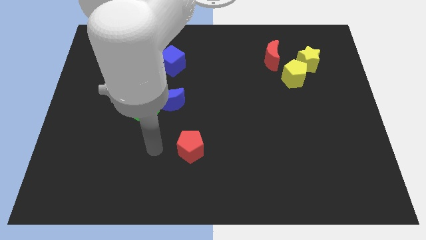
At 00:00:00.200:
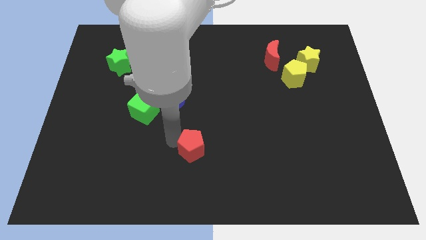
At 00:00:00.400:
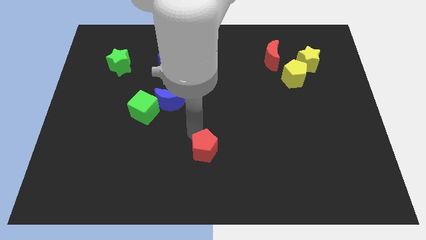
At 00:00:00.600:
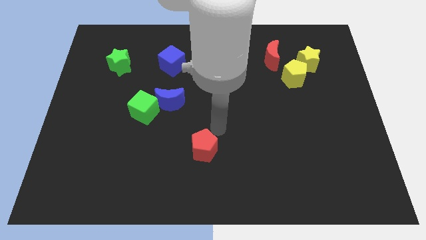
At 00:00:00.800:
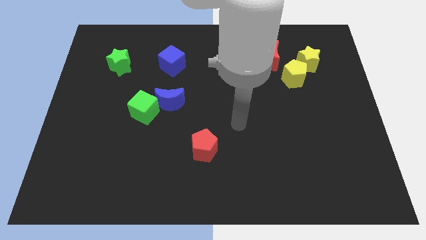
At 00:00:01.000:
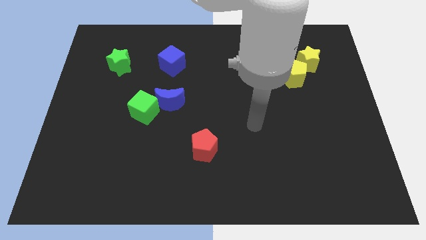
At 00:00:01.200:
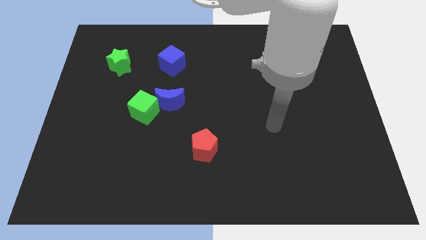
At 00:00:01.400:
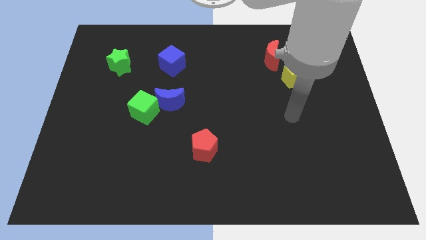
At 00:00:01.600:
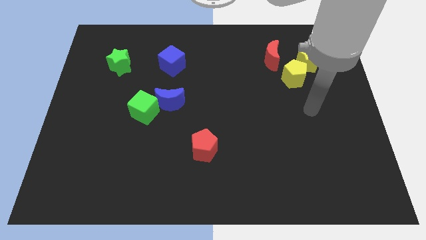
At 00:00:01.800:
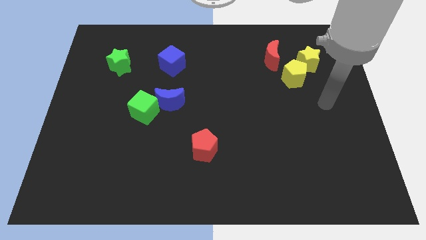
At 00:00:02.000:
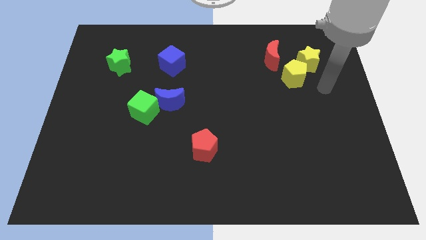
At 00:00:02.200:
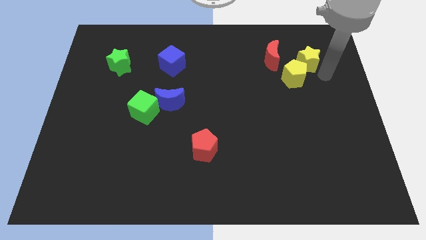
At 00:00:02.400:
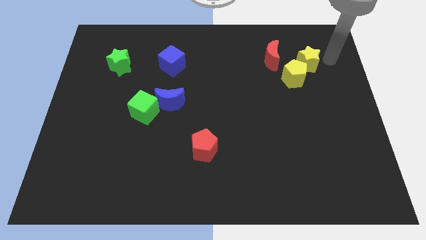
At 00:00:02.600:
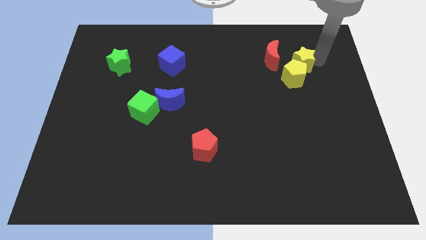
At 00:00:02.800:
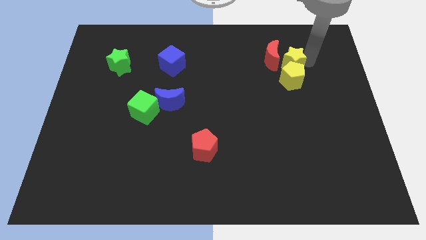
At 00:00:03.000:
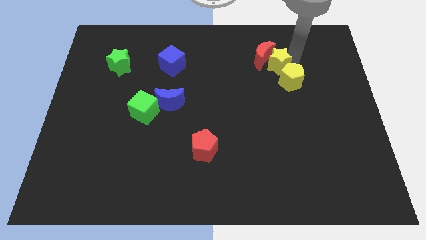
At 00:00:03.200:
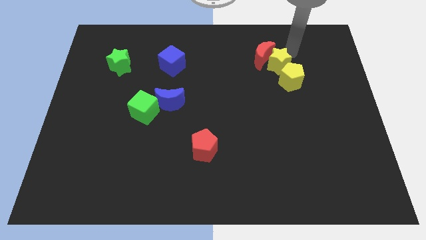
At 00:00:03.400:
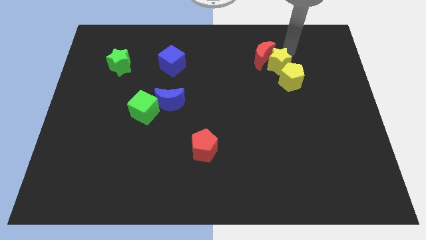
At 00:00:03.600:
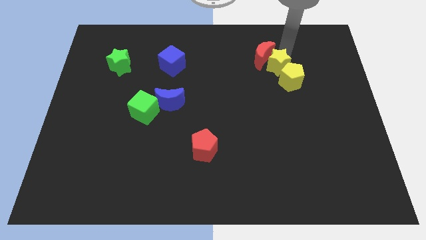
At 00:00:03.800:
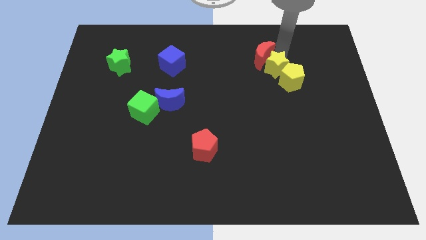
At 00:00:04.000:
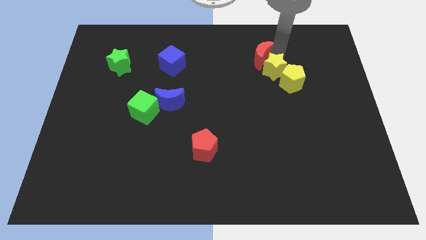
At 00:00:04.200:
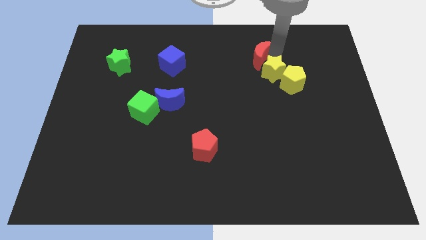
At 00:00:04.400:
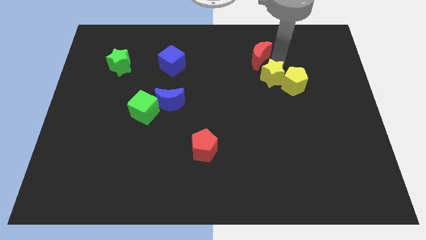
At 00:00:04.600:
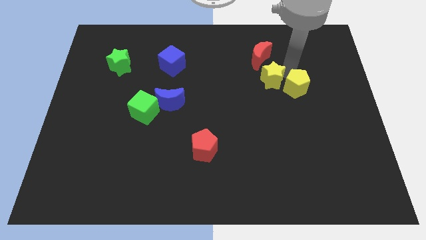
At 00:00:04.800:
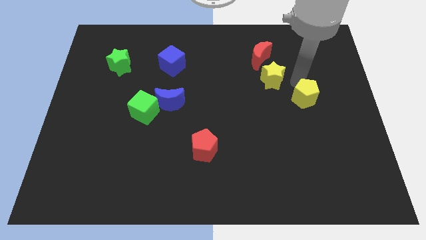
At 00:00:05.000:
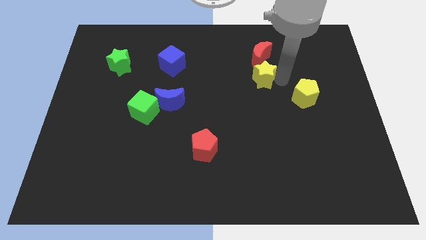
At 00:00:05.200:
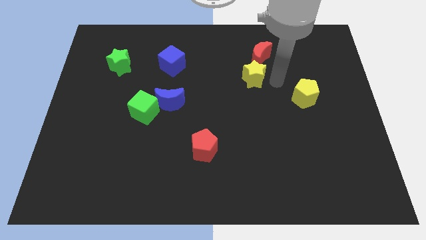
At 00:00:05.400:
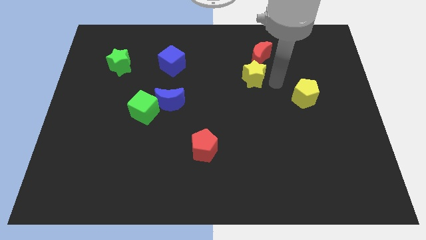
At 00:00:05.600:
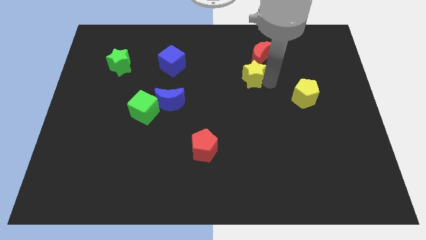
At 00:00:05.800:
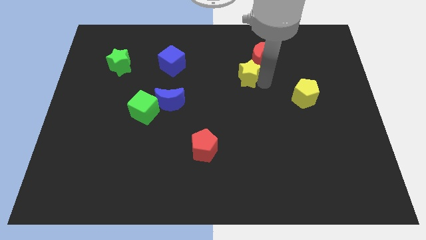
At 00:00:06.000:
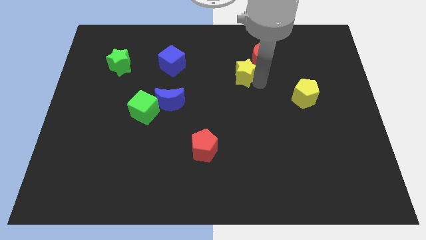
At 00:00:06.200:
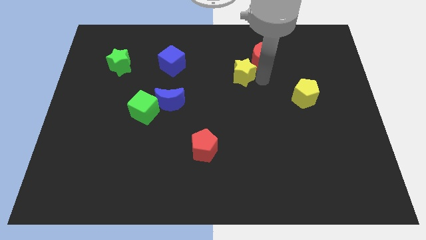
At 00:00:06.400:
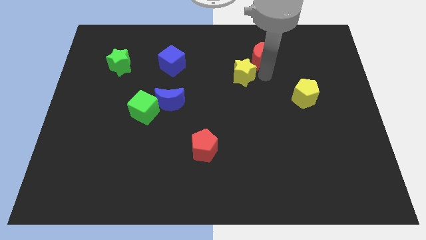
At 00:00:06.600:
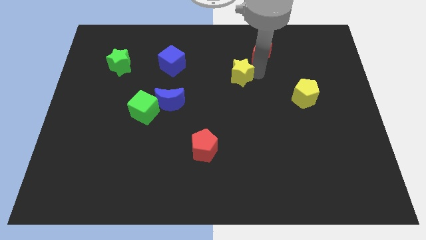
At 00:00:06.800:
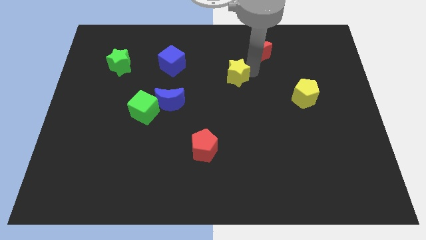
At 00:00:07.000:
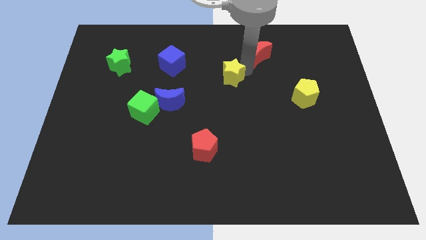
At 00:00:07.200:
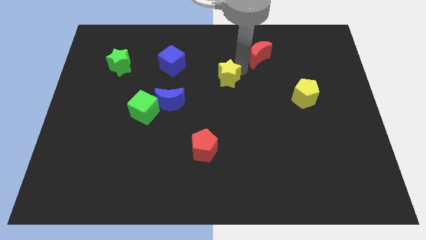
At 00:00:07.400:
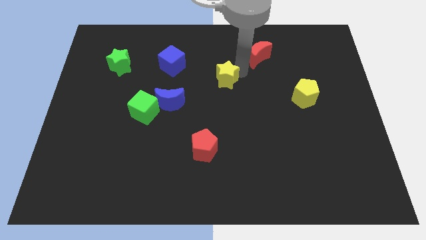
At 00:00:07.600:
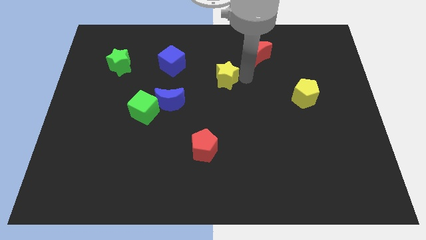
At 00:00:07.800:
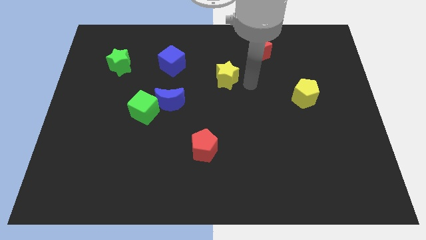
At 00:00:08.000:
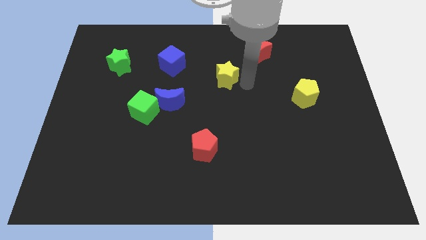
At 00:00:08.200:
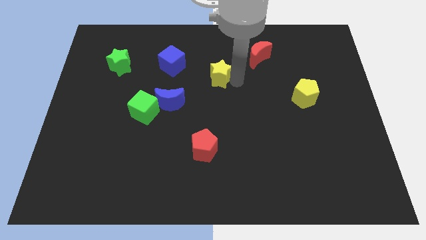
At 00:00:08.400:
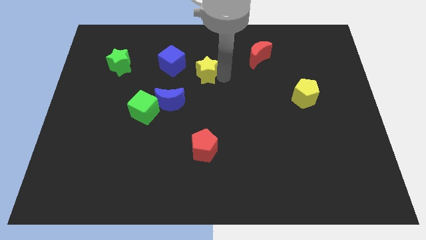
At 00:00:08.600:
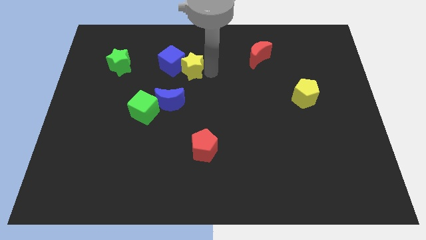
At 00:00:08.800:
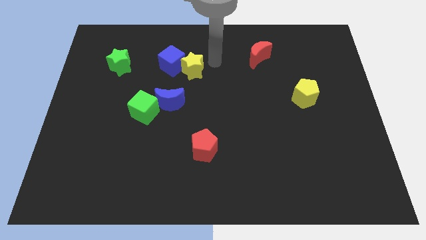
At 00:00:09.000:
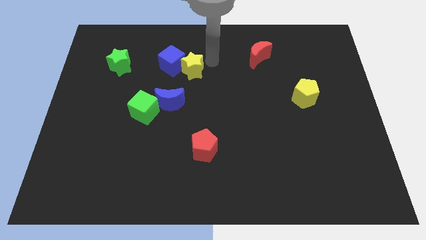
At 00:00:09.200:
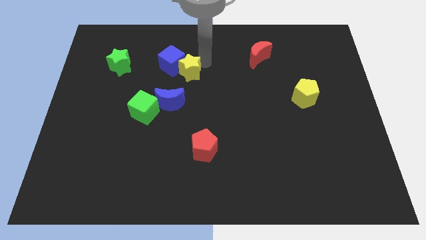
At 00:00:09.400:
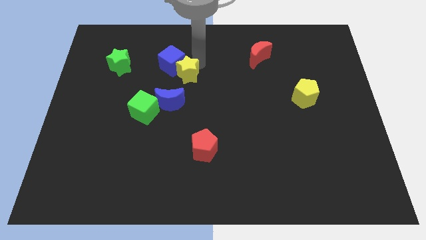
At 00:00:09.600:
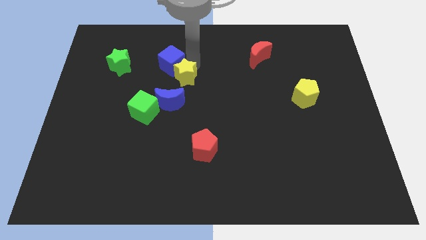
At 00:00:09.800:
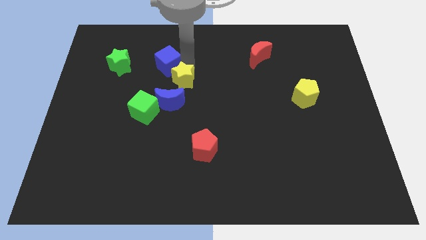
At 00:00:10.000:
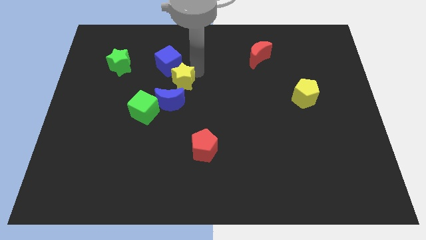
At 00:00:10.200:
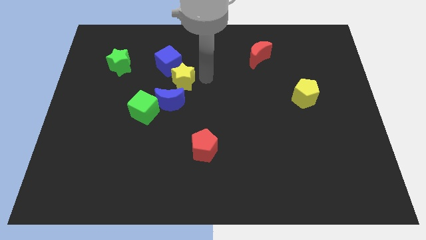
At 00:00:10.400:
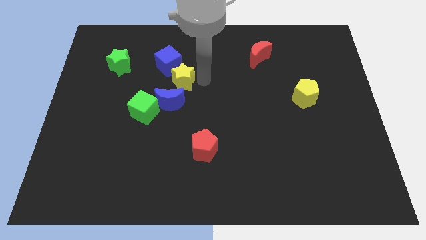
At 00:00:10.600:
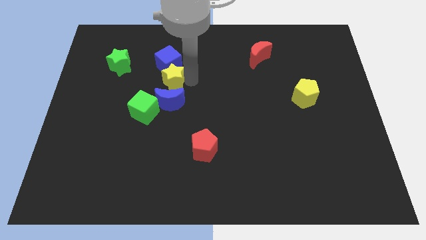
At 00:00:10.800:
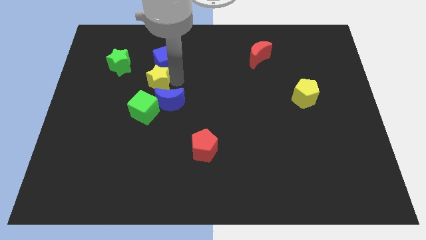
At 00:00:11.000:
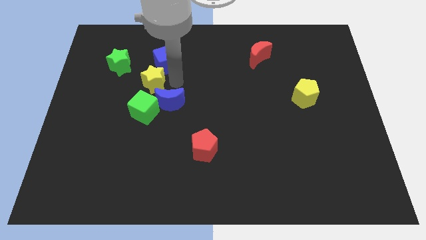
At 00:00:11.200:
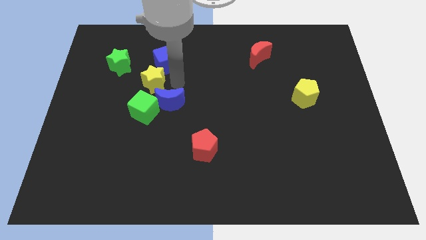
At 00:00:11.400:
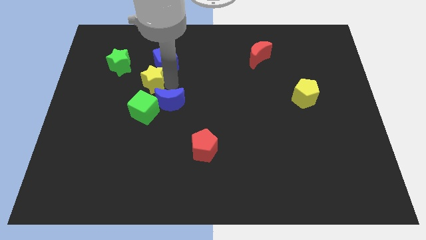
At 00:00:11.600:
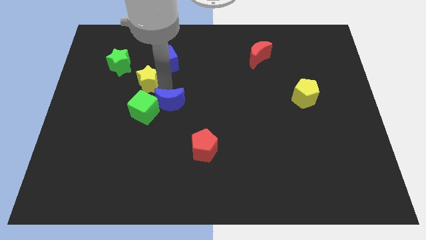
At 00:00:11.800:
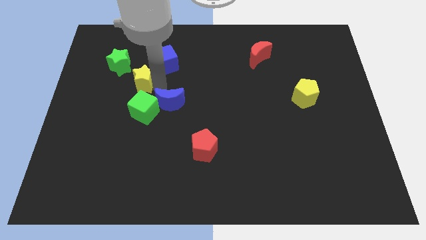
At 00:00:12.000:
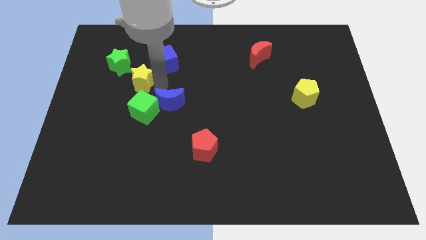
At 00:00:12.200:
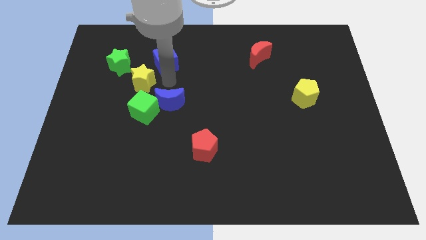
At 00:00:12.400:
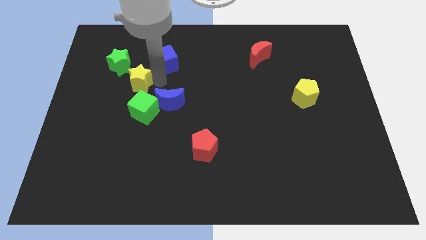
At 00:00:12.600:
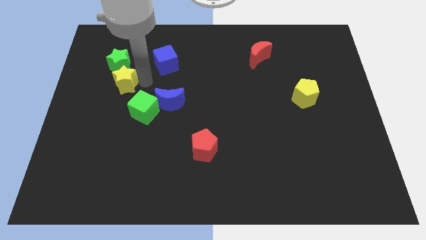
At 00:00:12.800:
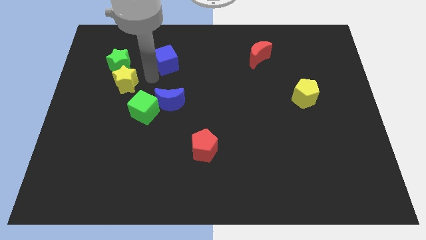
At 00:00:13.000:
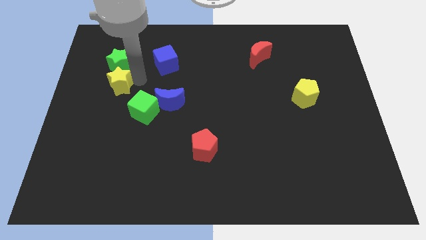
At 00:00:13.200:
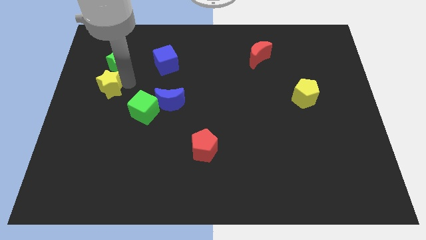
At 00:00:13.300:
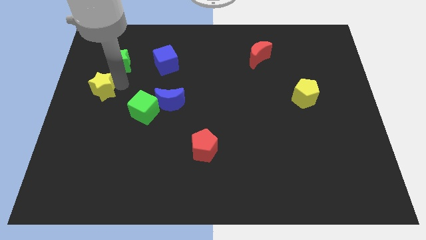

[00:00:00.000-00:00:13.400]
put the yellow star to the left side
